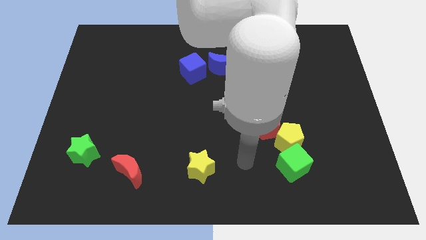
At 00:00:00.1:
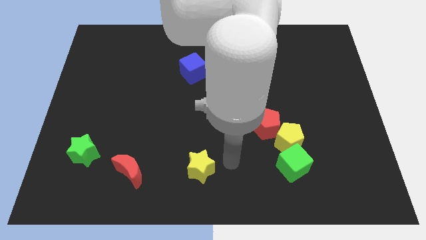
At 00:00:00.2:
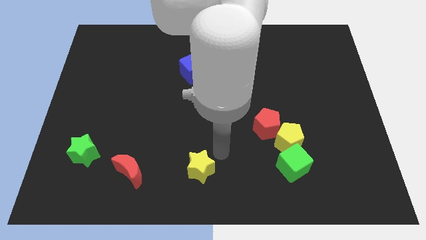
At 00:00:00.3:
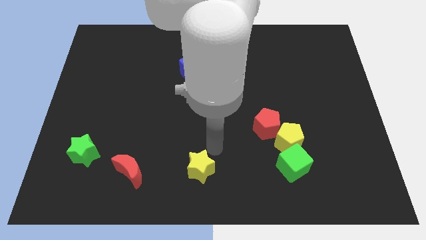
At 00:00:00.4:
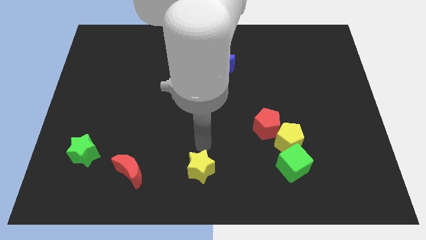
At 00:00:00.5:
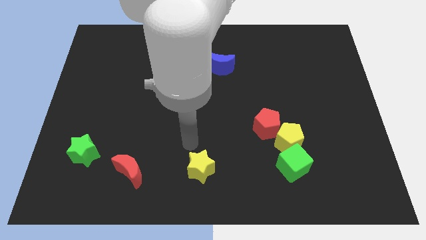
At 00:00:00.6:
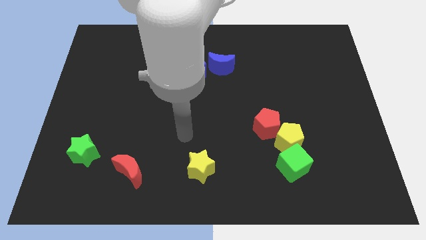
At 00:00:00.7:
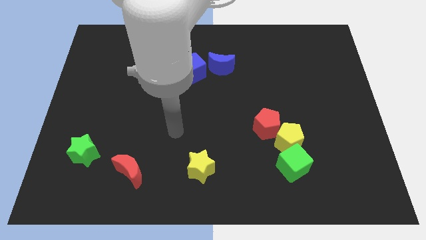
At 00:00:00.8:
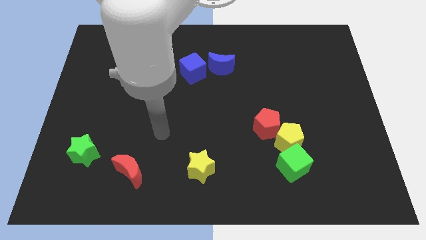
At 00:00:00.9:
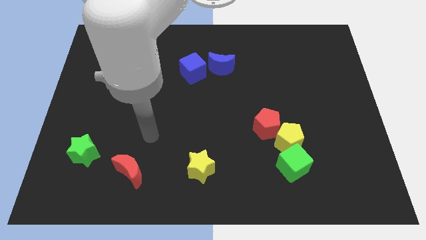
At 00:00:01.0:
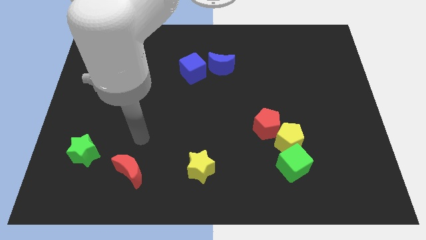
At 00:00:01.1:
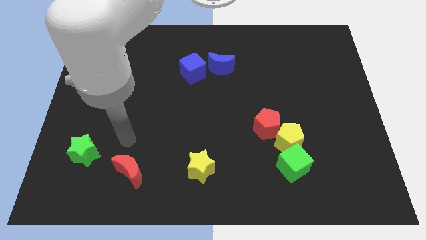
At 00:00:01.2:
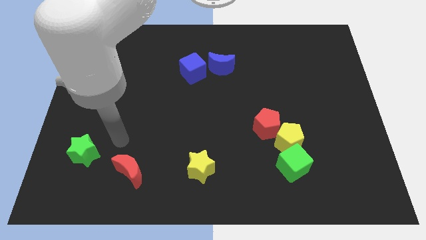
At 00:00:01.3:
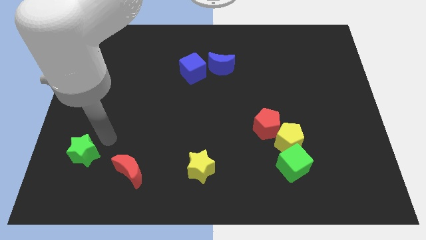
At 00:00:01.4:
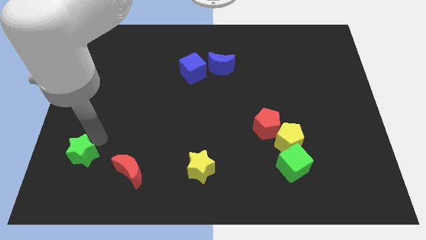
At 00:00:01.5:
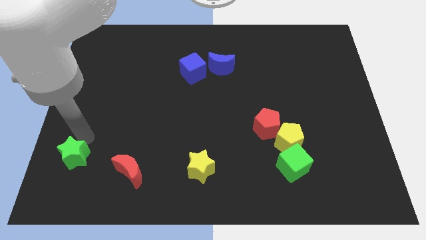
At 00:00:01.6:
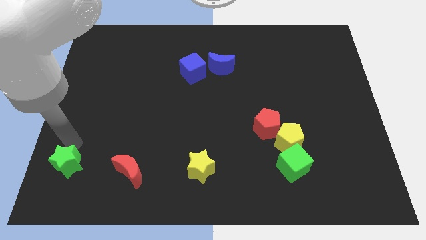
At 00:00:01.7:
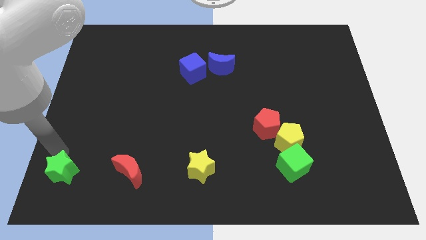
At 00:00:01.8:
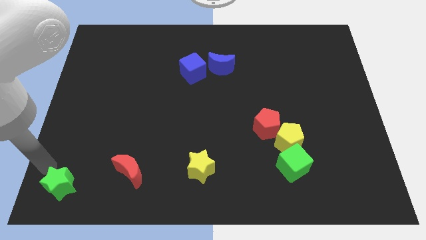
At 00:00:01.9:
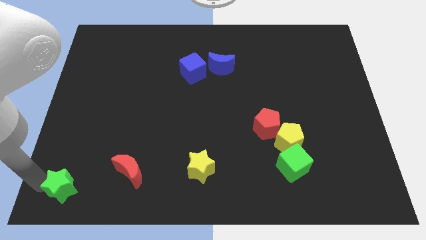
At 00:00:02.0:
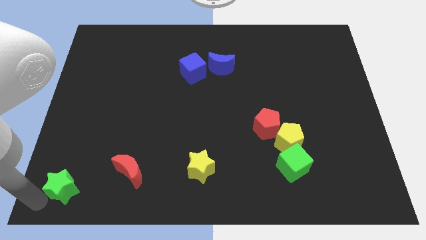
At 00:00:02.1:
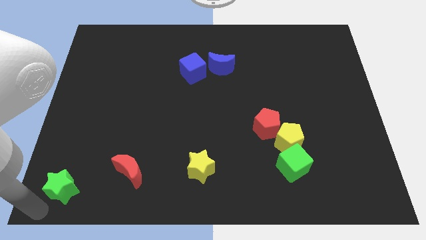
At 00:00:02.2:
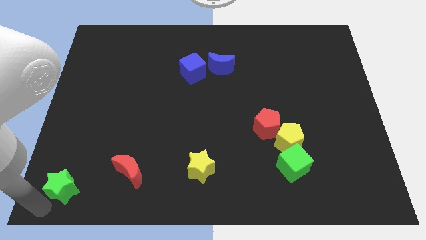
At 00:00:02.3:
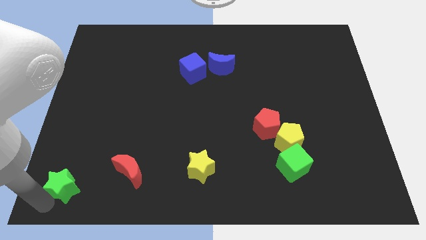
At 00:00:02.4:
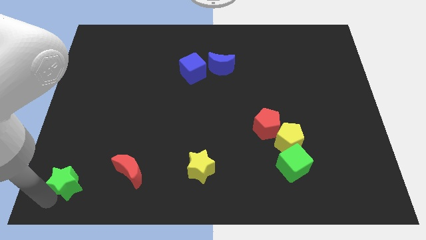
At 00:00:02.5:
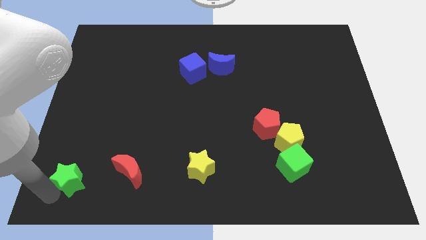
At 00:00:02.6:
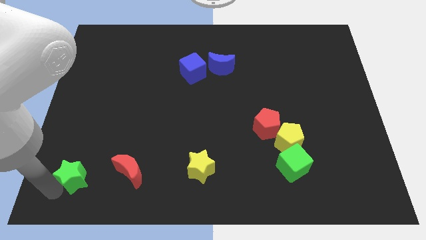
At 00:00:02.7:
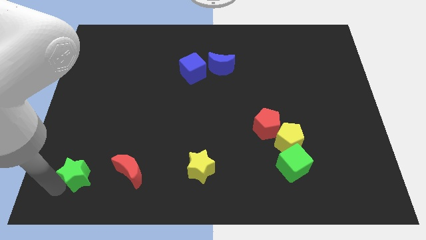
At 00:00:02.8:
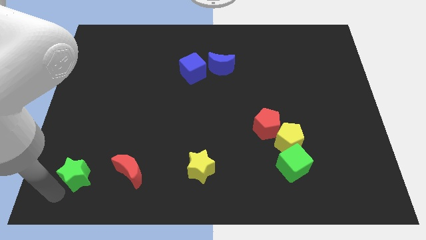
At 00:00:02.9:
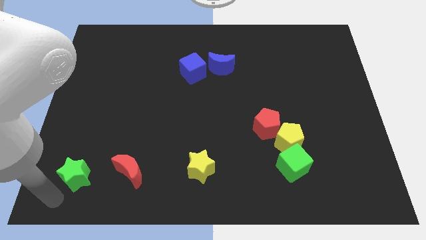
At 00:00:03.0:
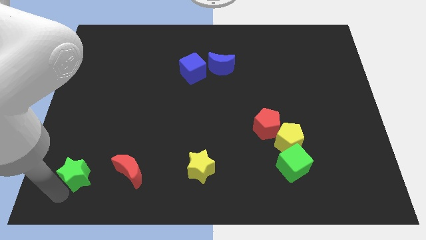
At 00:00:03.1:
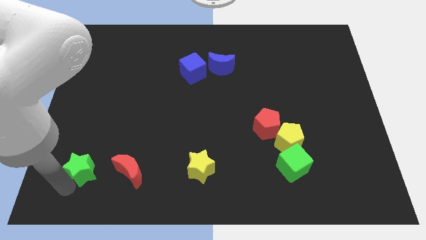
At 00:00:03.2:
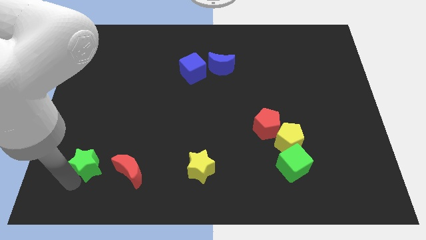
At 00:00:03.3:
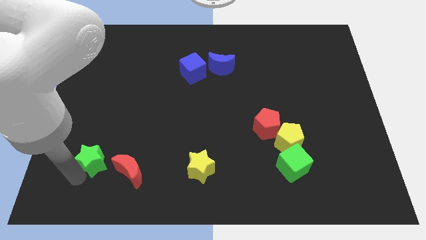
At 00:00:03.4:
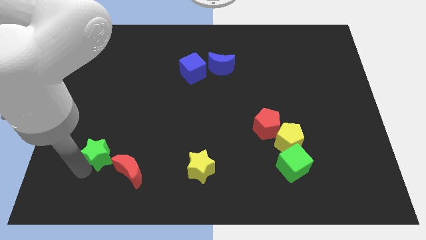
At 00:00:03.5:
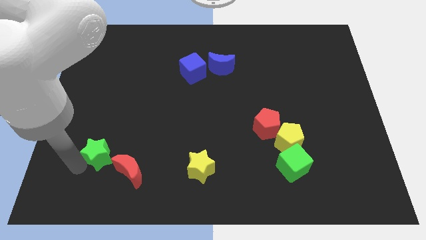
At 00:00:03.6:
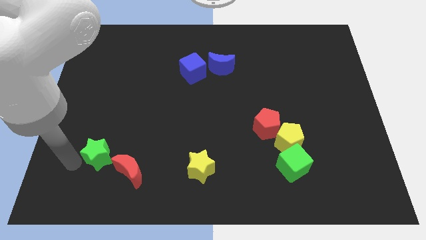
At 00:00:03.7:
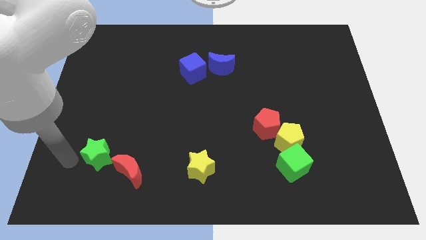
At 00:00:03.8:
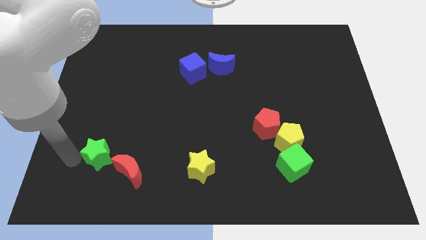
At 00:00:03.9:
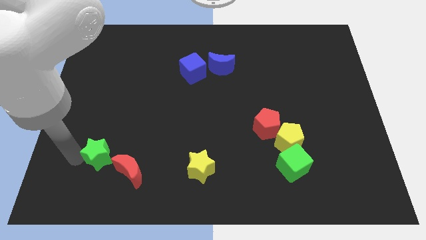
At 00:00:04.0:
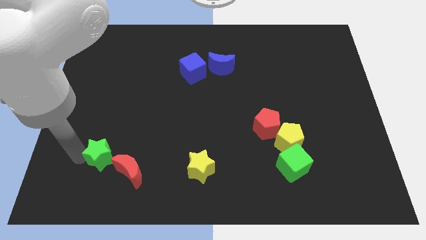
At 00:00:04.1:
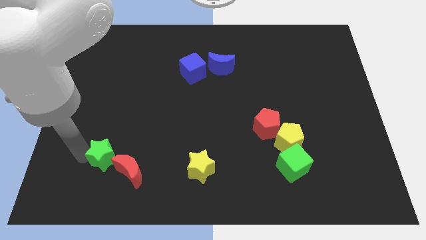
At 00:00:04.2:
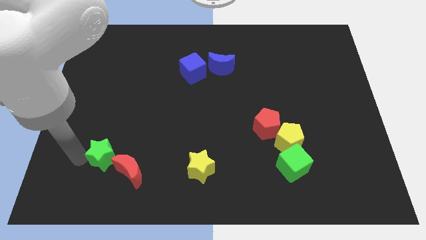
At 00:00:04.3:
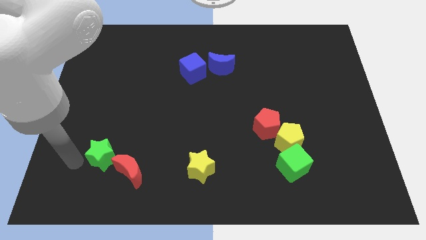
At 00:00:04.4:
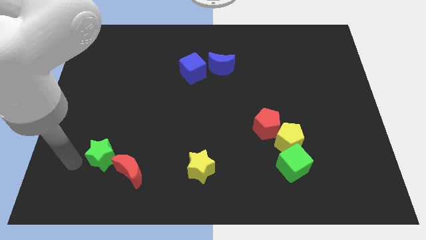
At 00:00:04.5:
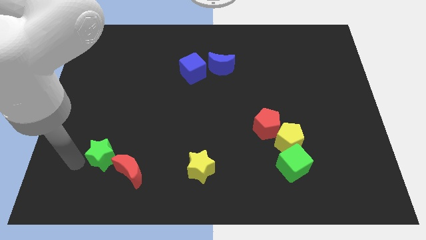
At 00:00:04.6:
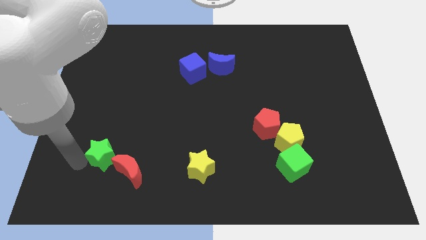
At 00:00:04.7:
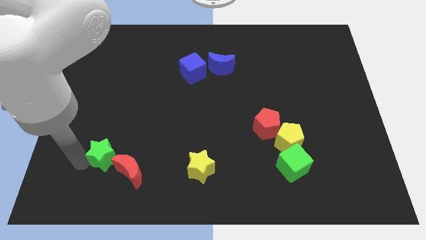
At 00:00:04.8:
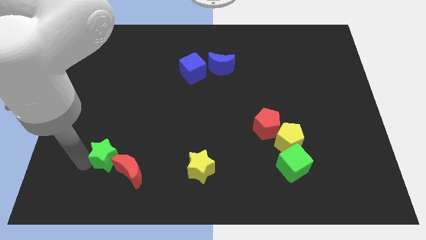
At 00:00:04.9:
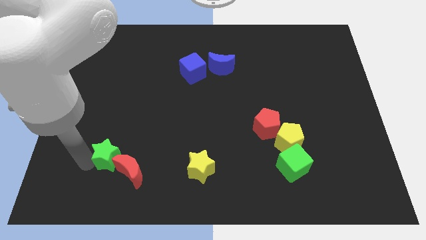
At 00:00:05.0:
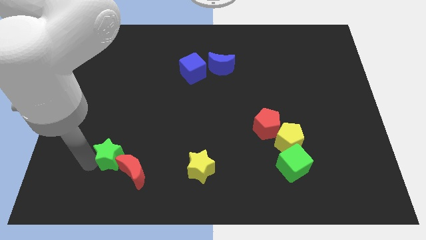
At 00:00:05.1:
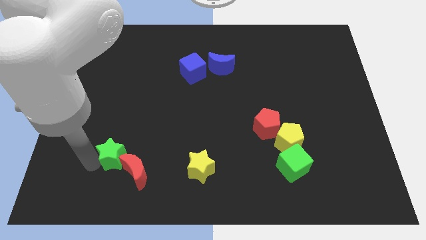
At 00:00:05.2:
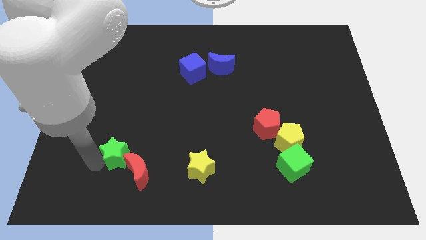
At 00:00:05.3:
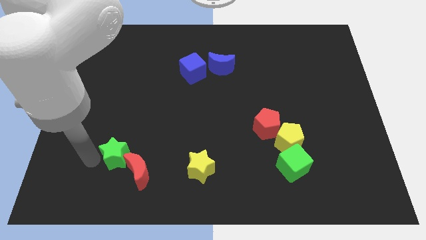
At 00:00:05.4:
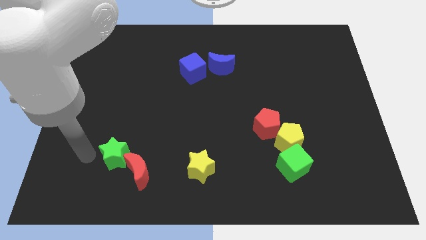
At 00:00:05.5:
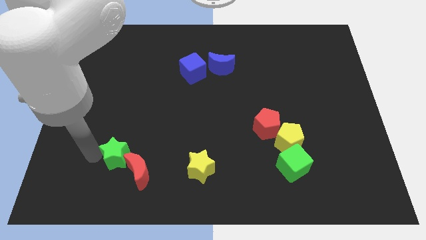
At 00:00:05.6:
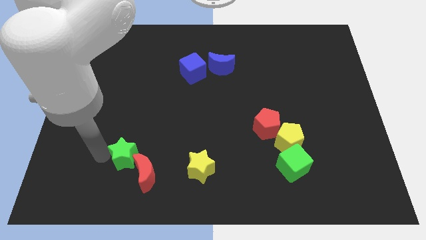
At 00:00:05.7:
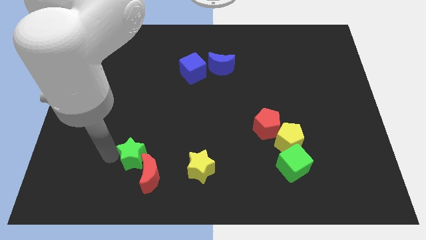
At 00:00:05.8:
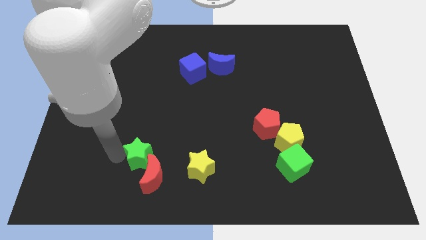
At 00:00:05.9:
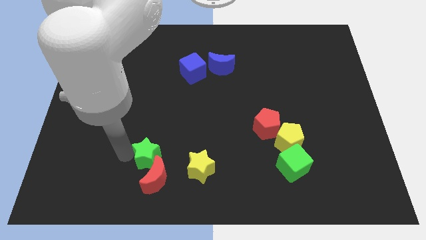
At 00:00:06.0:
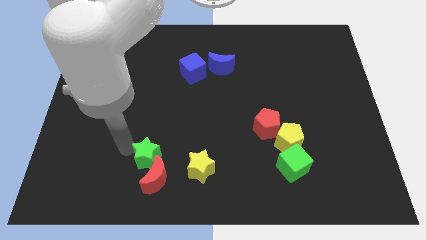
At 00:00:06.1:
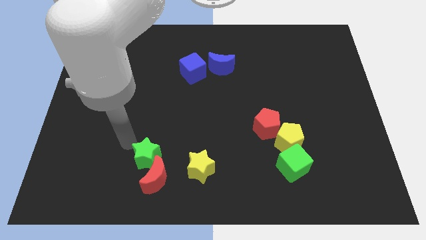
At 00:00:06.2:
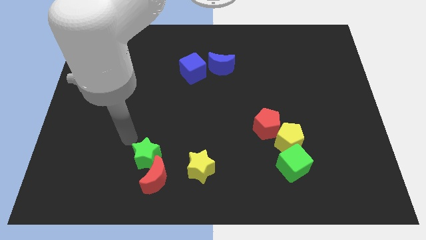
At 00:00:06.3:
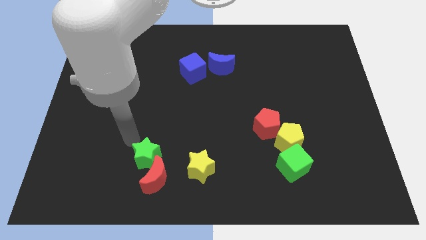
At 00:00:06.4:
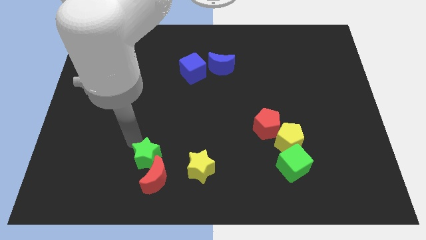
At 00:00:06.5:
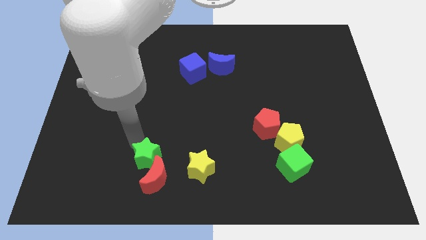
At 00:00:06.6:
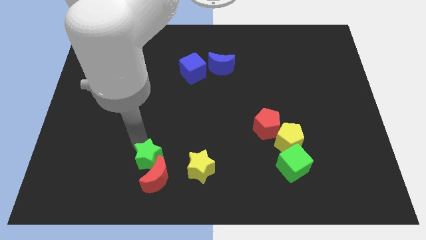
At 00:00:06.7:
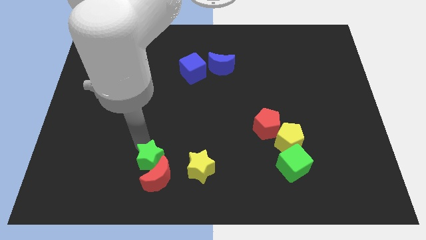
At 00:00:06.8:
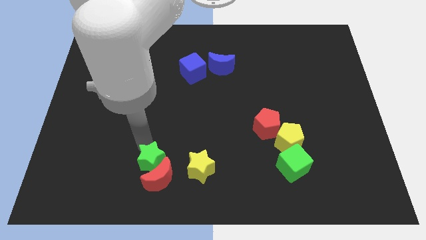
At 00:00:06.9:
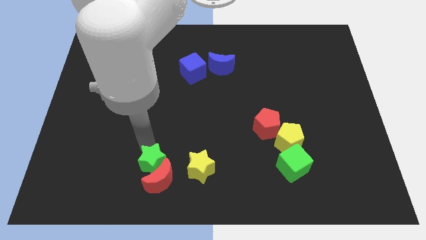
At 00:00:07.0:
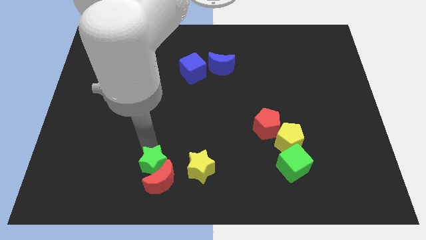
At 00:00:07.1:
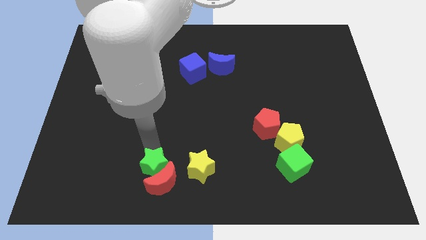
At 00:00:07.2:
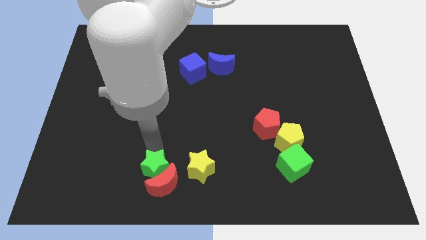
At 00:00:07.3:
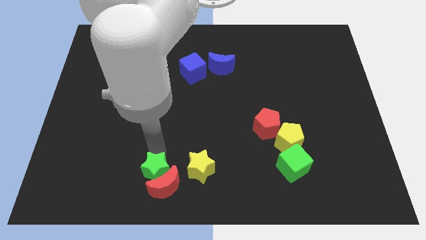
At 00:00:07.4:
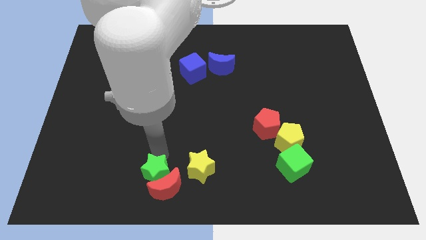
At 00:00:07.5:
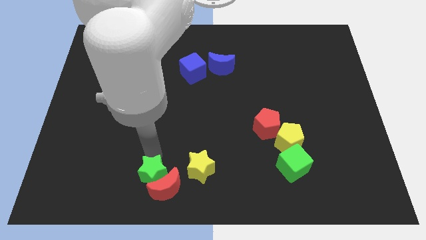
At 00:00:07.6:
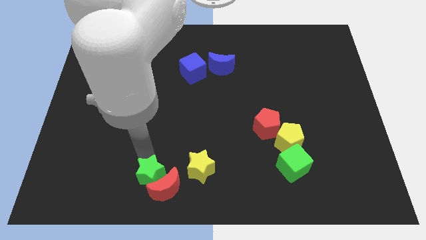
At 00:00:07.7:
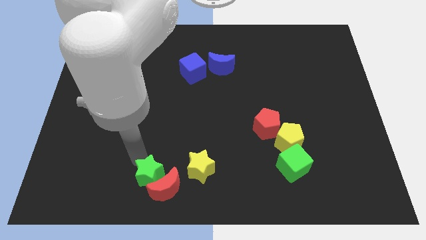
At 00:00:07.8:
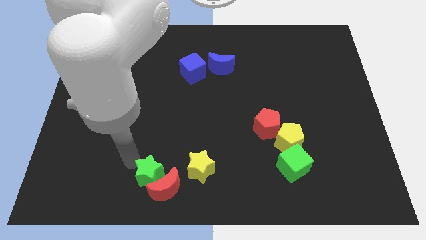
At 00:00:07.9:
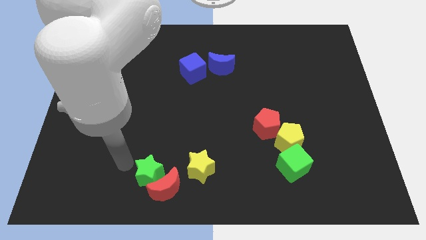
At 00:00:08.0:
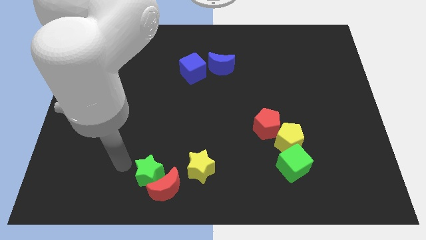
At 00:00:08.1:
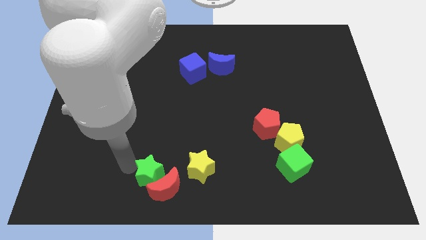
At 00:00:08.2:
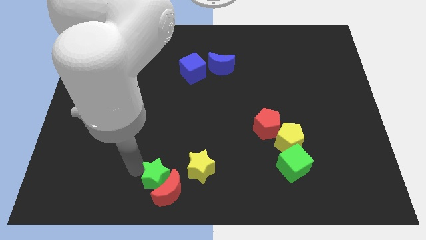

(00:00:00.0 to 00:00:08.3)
put the green star to the bottom
